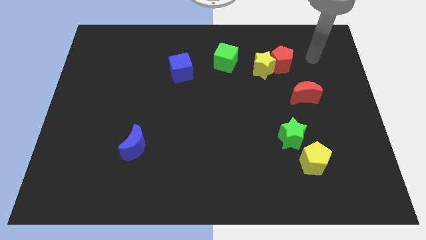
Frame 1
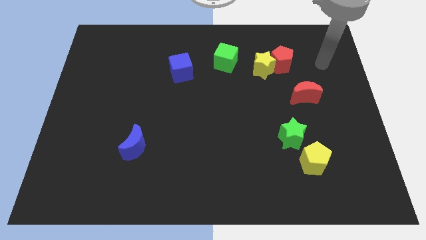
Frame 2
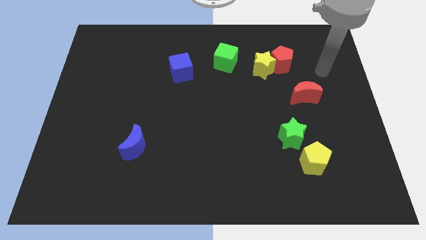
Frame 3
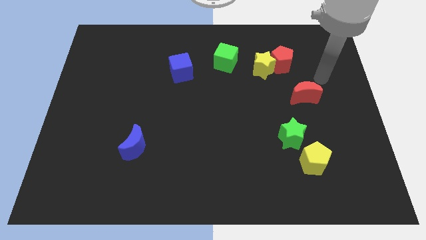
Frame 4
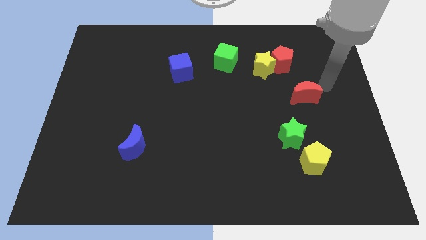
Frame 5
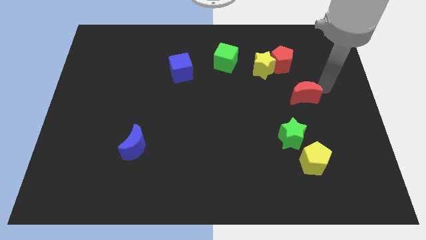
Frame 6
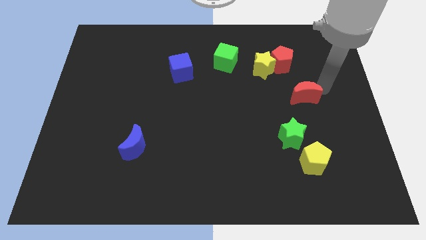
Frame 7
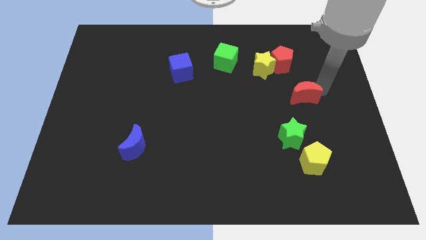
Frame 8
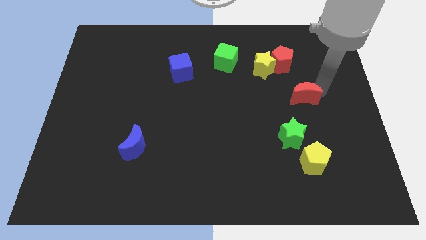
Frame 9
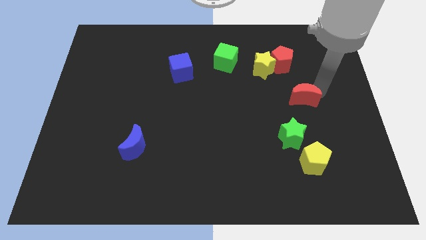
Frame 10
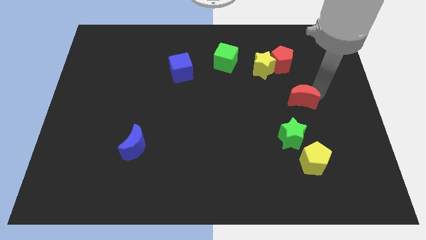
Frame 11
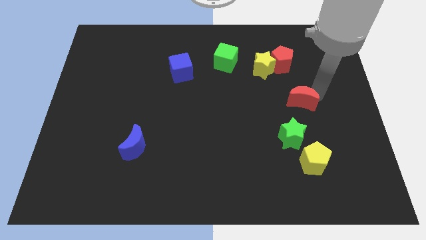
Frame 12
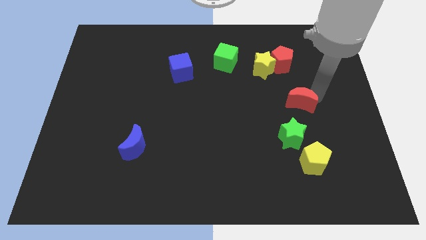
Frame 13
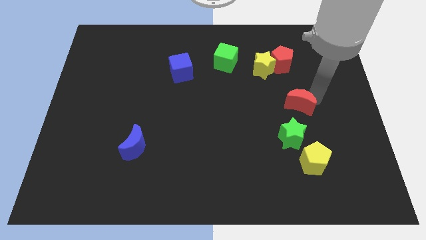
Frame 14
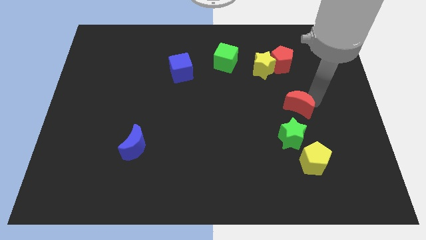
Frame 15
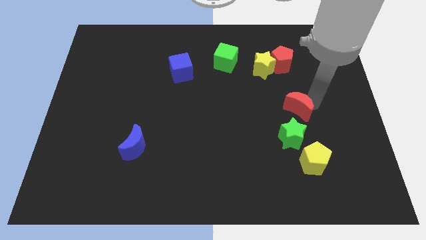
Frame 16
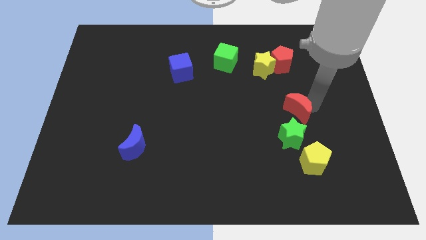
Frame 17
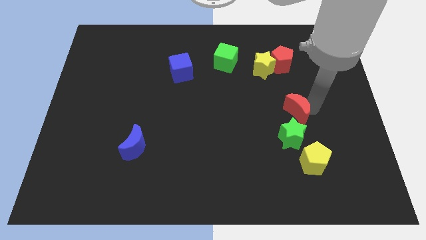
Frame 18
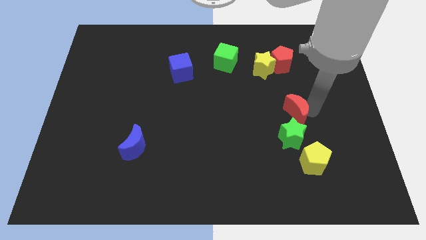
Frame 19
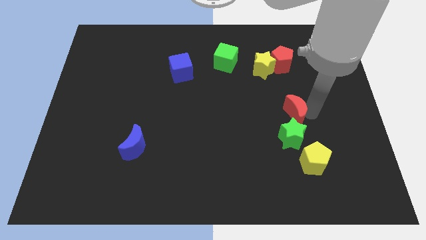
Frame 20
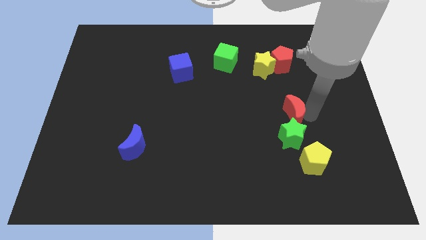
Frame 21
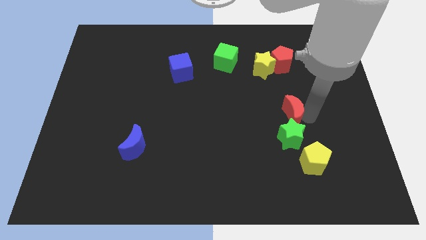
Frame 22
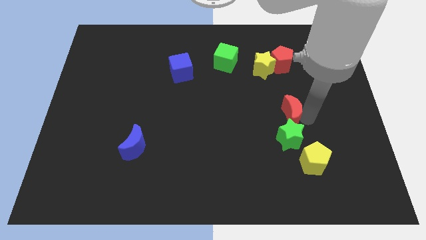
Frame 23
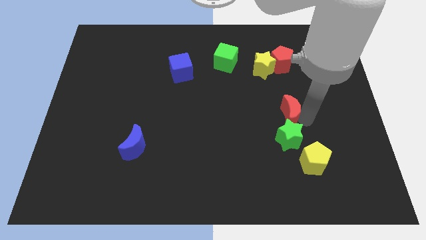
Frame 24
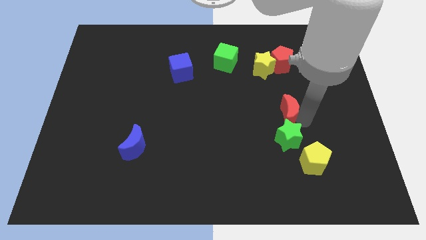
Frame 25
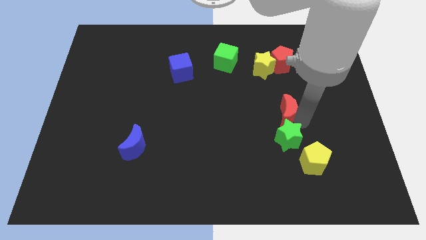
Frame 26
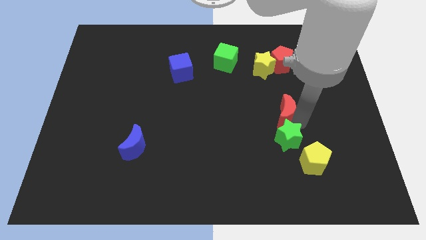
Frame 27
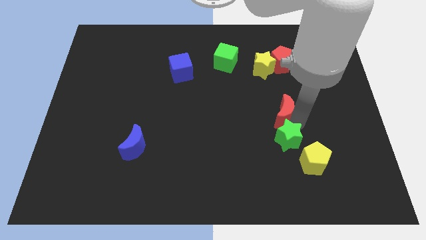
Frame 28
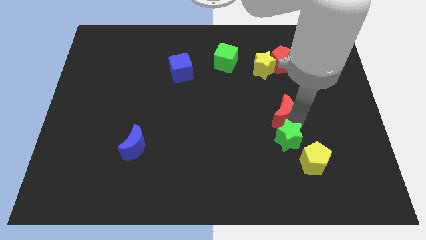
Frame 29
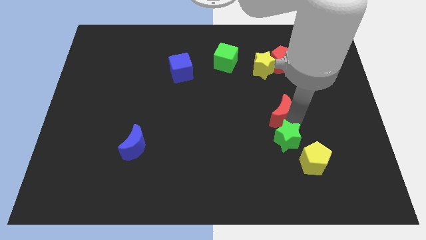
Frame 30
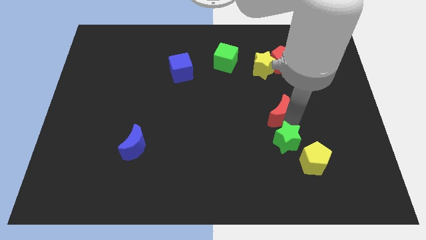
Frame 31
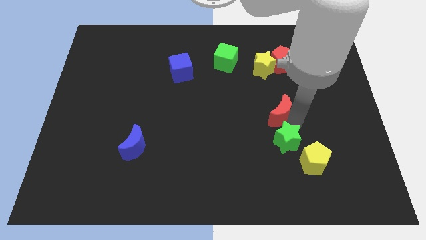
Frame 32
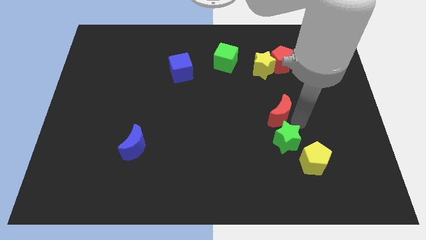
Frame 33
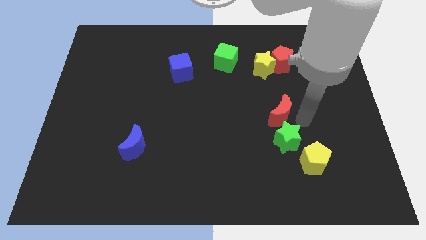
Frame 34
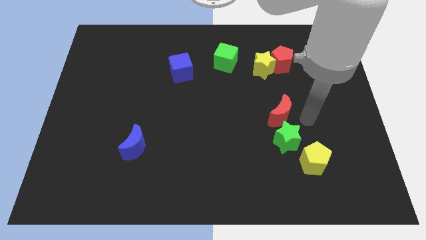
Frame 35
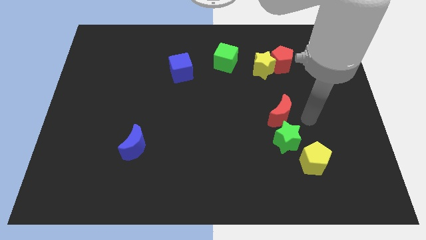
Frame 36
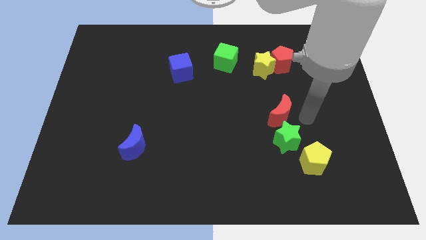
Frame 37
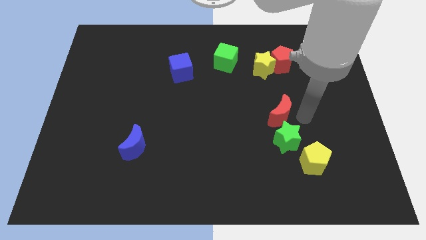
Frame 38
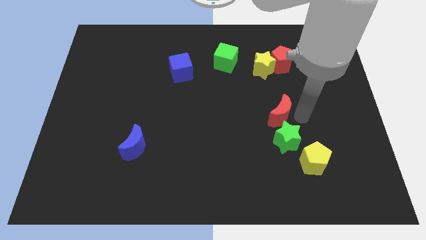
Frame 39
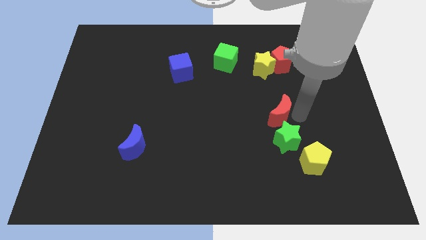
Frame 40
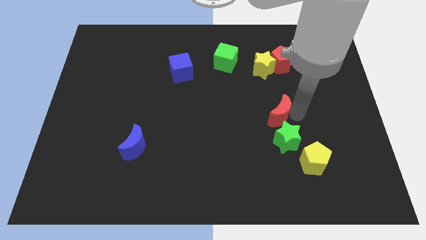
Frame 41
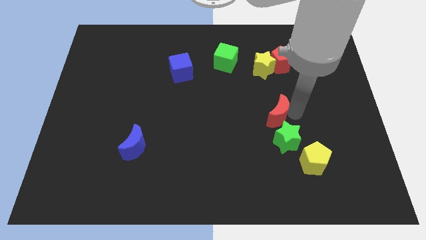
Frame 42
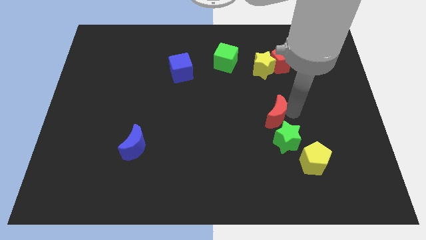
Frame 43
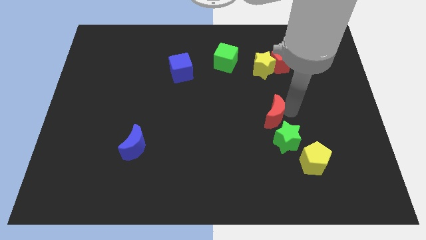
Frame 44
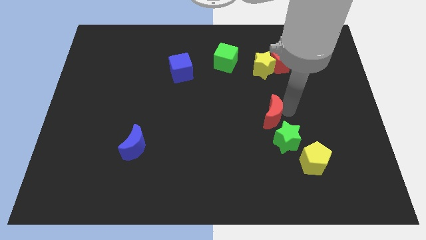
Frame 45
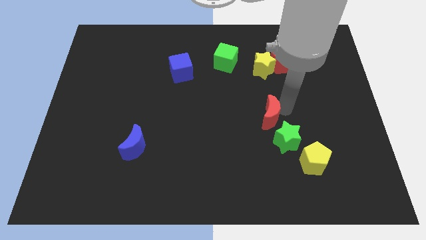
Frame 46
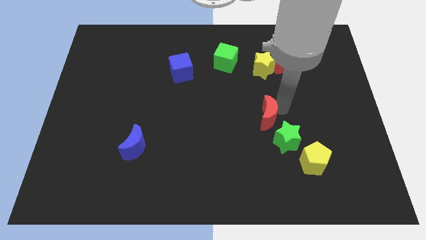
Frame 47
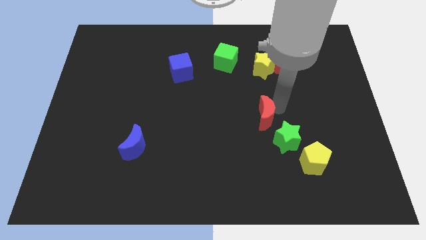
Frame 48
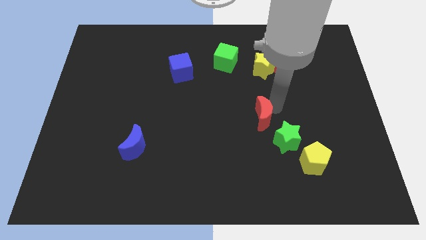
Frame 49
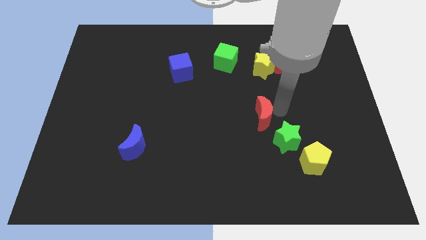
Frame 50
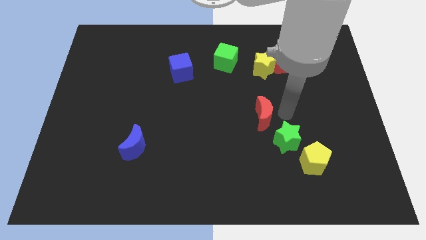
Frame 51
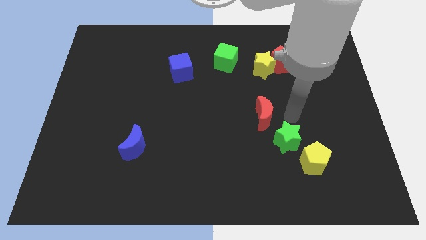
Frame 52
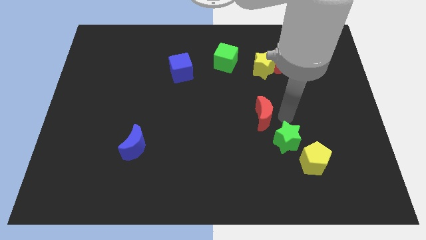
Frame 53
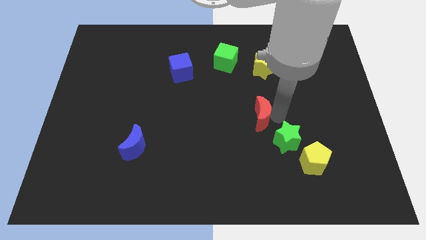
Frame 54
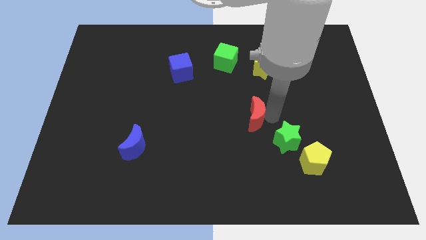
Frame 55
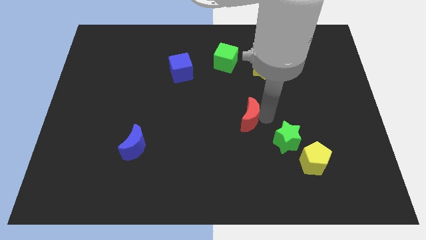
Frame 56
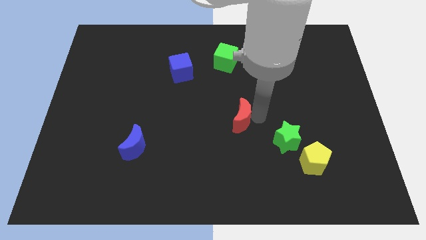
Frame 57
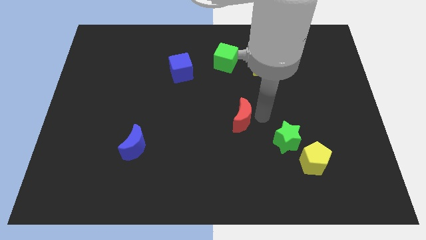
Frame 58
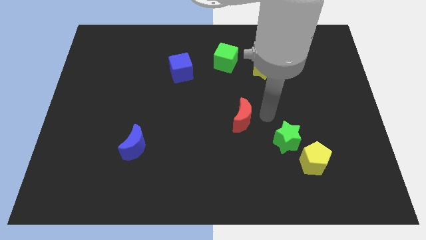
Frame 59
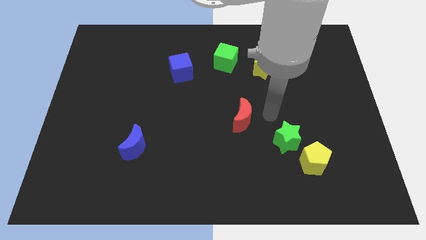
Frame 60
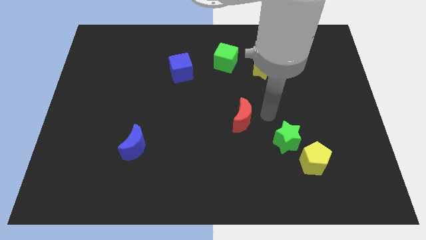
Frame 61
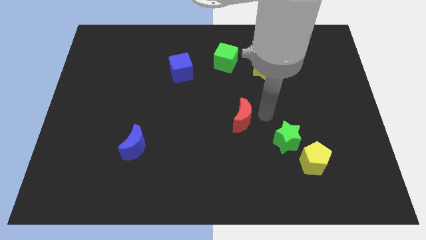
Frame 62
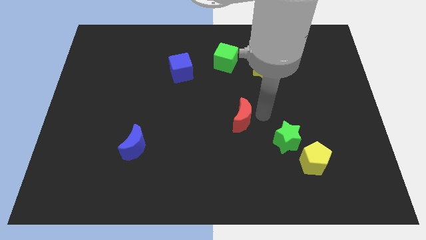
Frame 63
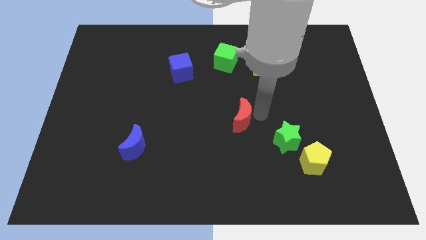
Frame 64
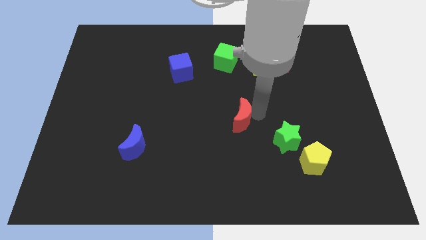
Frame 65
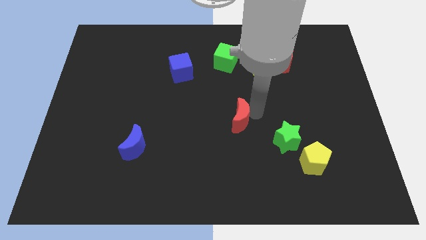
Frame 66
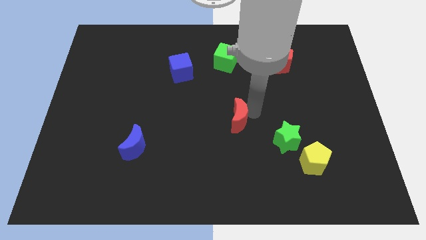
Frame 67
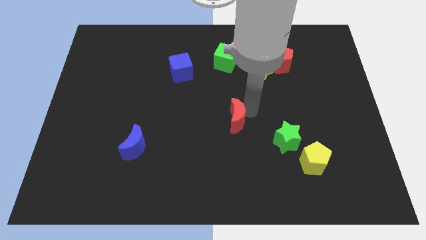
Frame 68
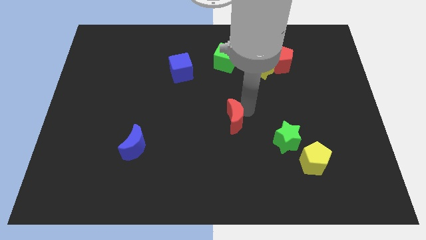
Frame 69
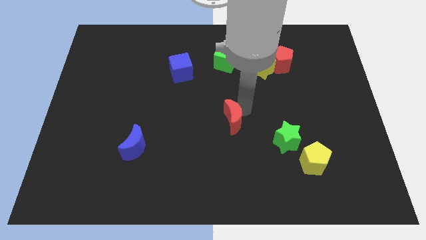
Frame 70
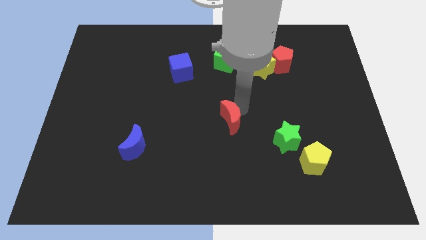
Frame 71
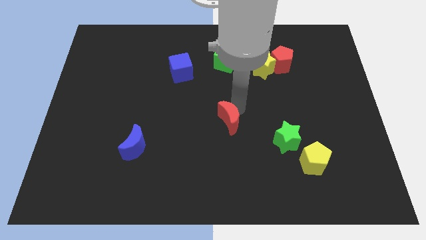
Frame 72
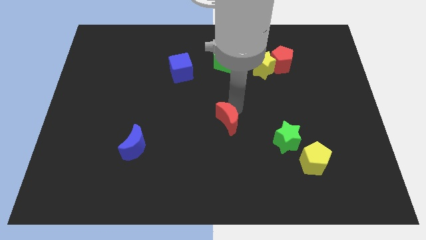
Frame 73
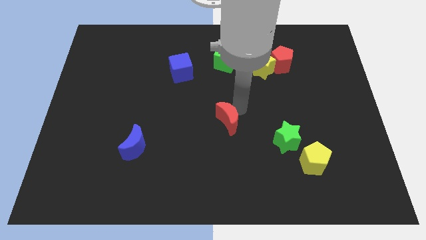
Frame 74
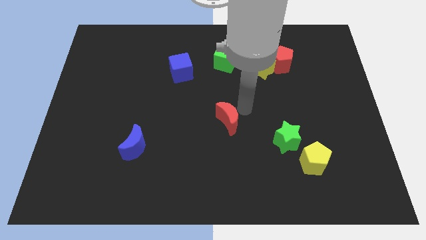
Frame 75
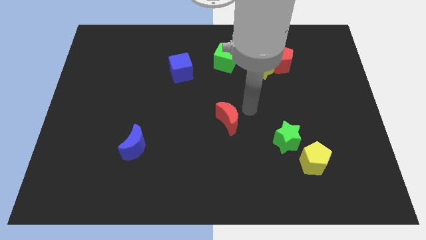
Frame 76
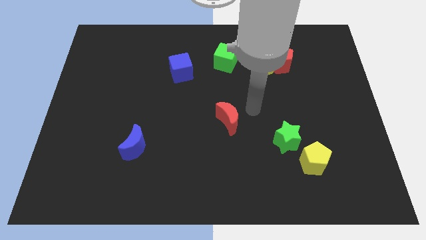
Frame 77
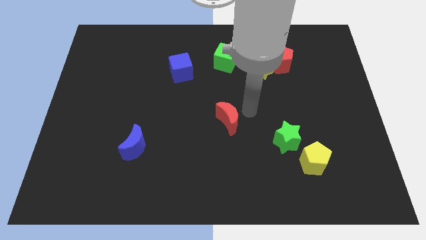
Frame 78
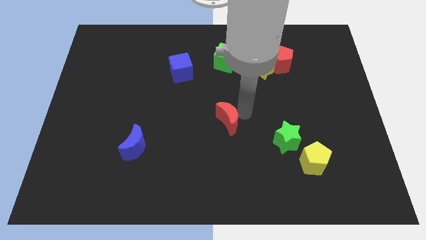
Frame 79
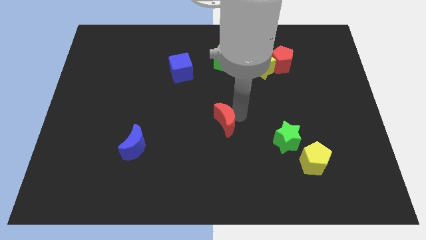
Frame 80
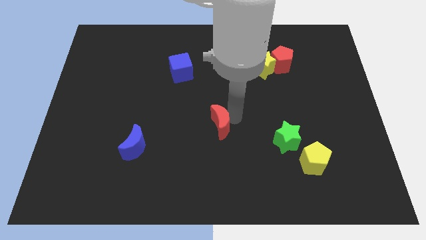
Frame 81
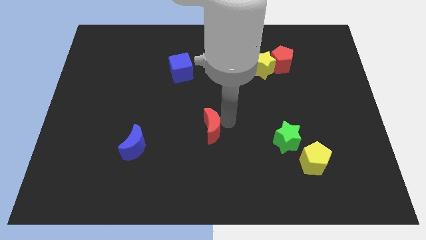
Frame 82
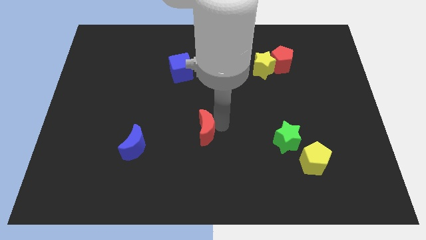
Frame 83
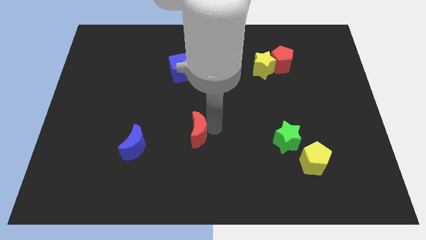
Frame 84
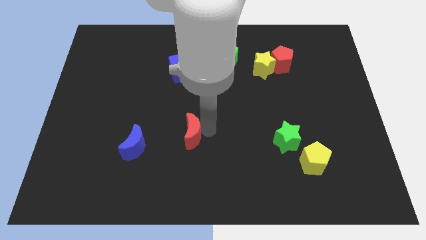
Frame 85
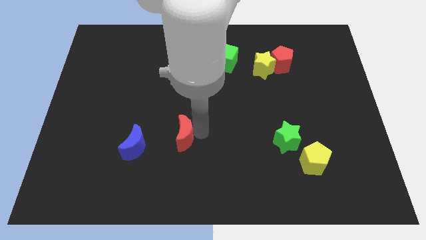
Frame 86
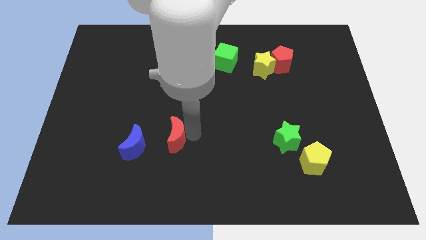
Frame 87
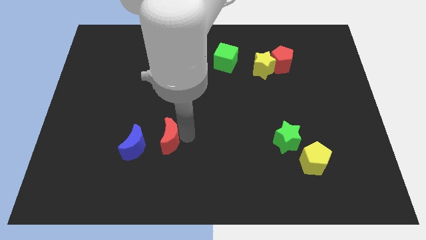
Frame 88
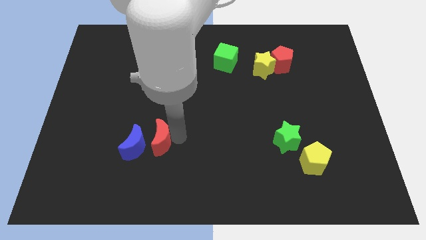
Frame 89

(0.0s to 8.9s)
push the red moon towards the blue moon
